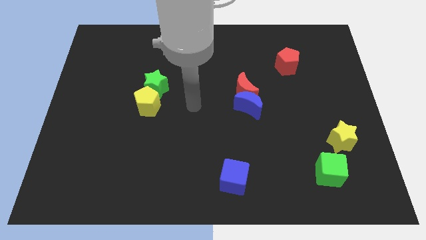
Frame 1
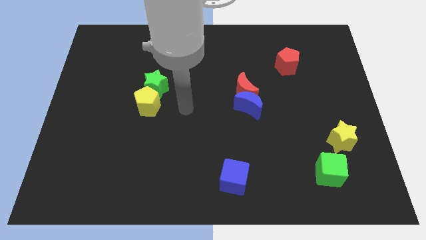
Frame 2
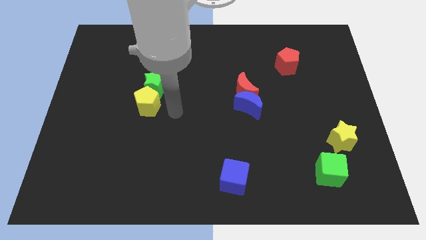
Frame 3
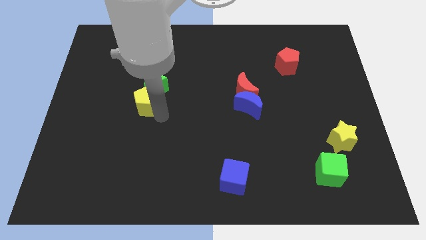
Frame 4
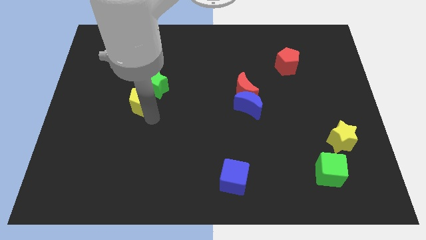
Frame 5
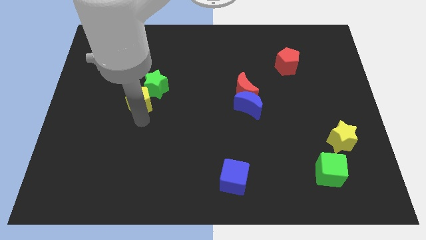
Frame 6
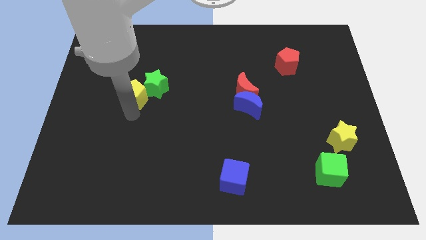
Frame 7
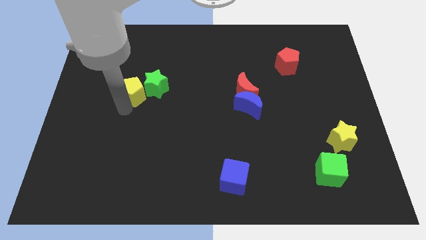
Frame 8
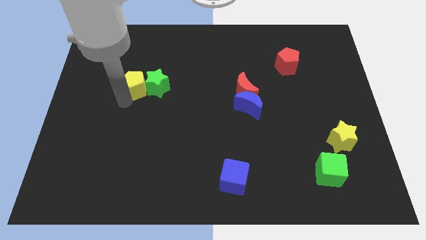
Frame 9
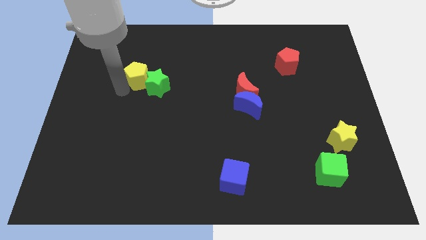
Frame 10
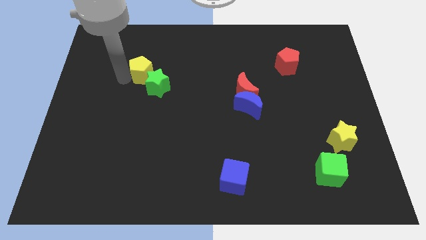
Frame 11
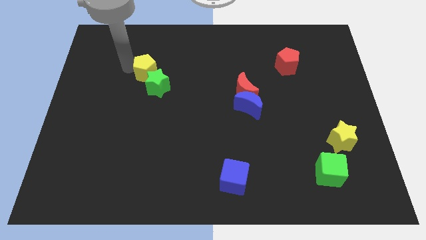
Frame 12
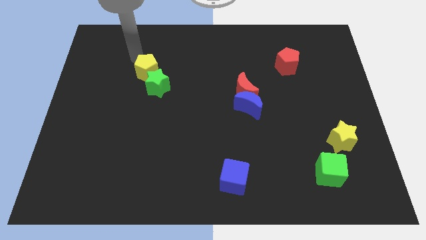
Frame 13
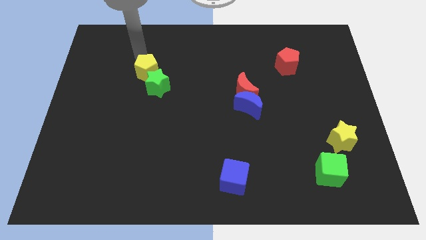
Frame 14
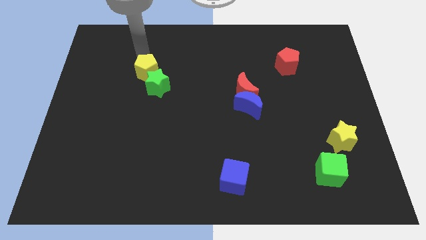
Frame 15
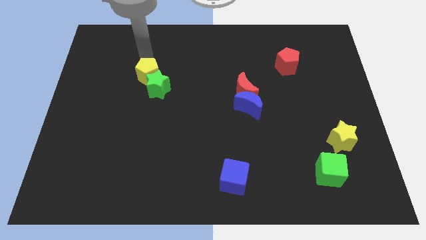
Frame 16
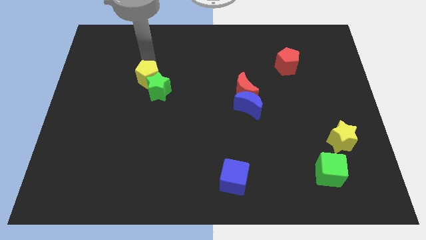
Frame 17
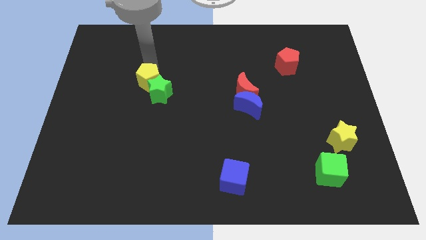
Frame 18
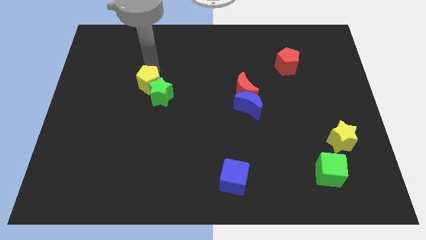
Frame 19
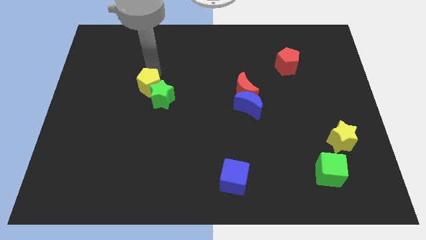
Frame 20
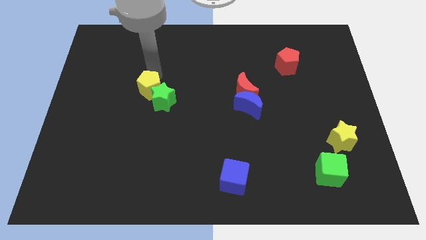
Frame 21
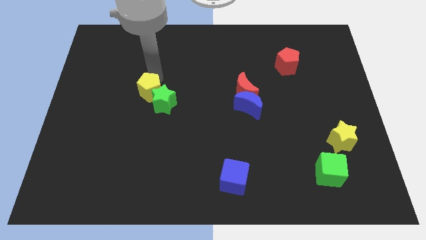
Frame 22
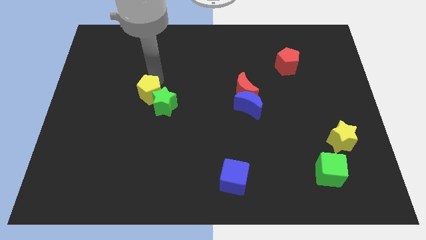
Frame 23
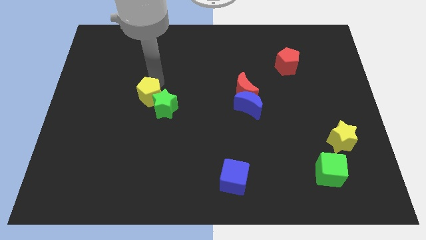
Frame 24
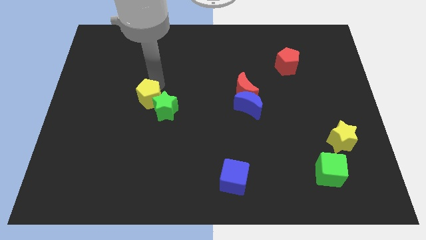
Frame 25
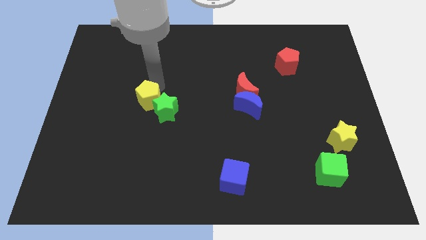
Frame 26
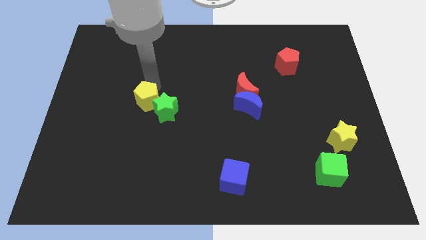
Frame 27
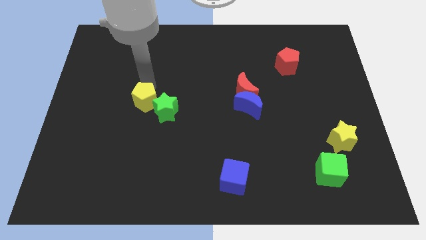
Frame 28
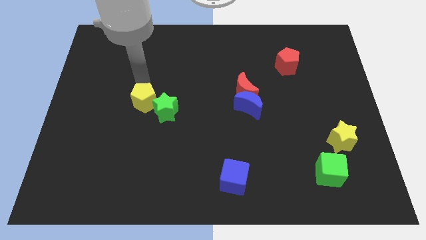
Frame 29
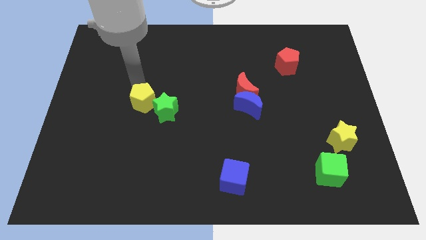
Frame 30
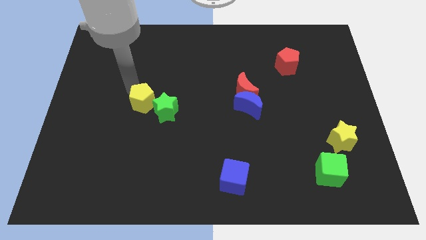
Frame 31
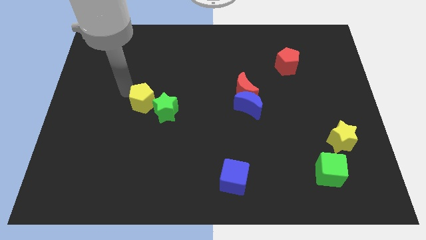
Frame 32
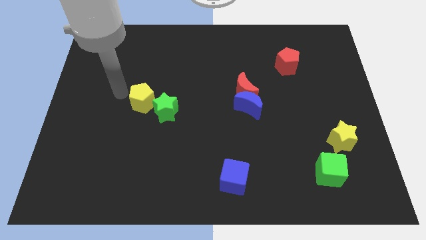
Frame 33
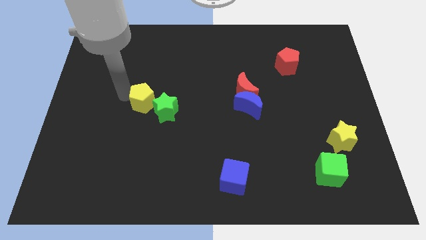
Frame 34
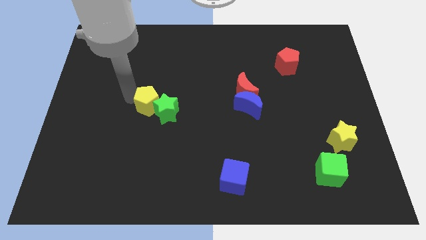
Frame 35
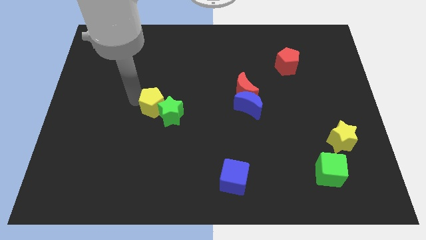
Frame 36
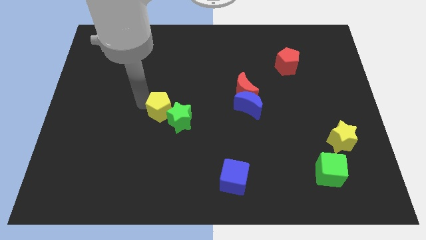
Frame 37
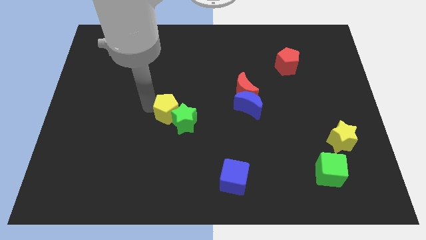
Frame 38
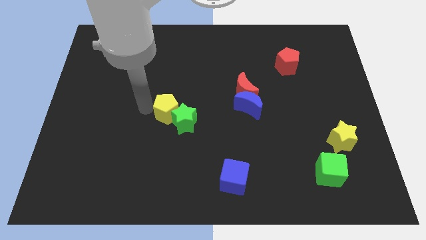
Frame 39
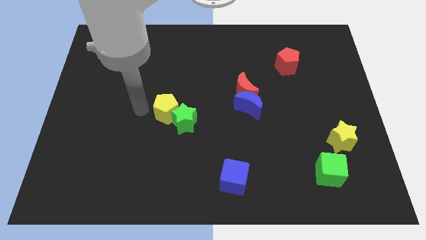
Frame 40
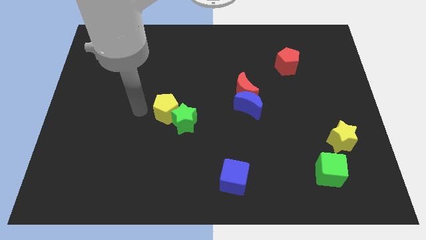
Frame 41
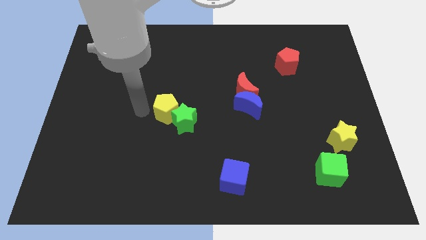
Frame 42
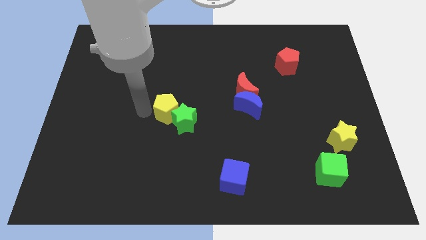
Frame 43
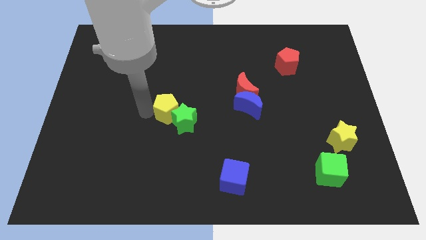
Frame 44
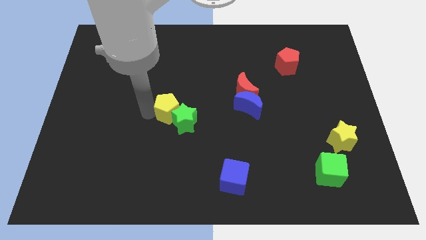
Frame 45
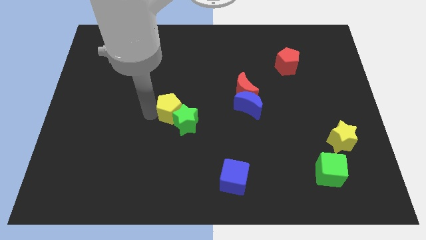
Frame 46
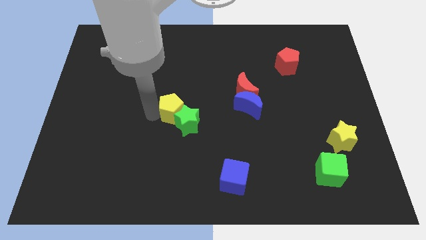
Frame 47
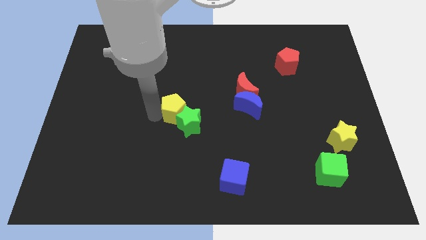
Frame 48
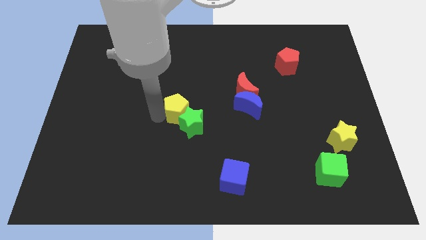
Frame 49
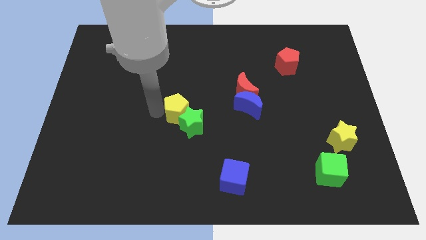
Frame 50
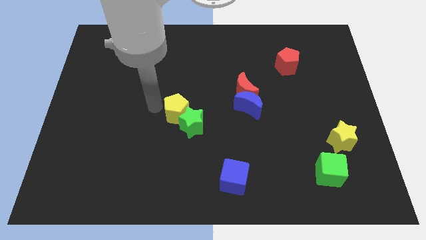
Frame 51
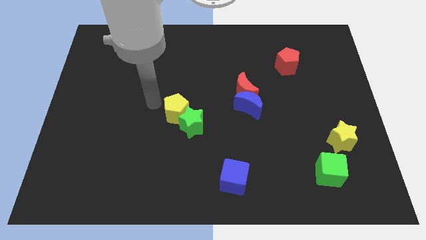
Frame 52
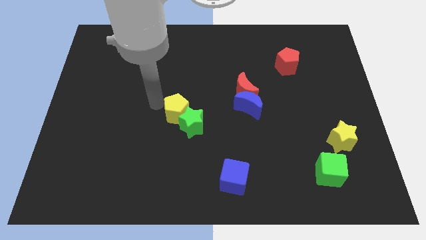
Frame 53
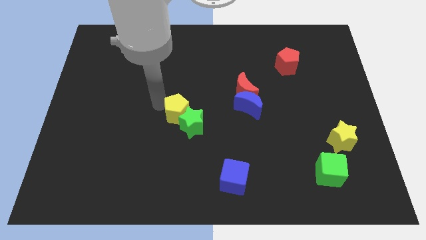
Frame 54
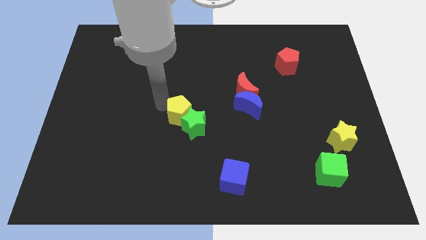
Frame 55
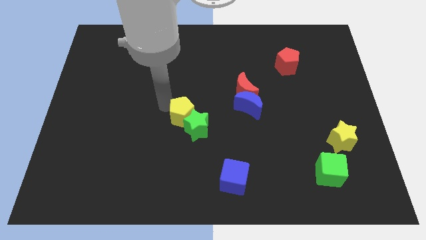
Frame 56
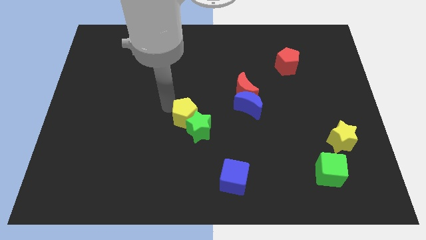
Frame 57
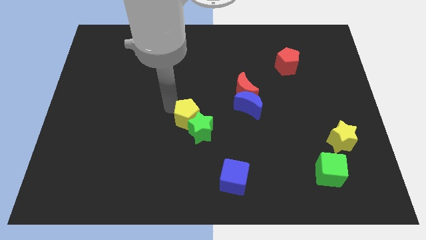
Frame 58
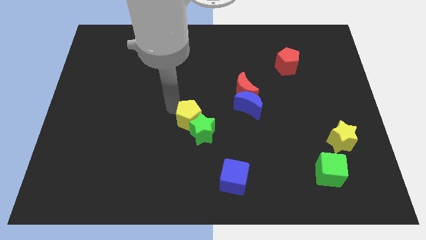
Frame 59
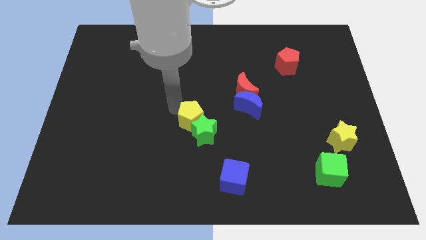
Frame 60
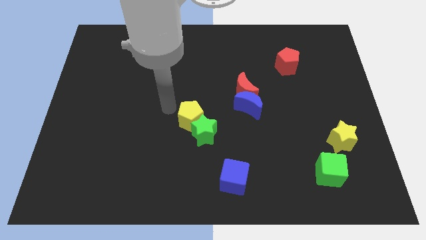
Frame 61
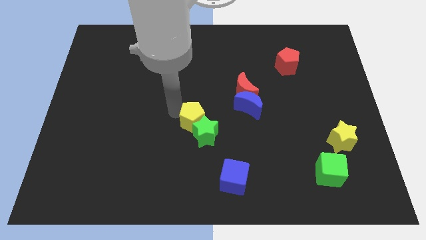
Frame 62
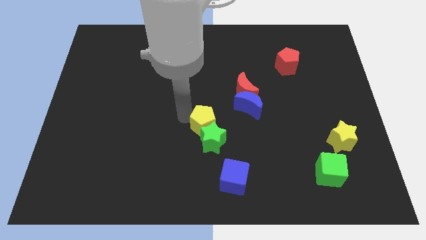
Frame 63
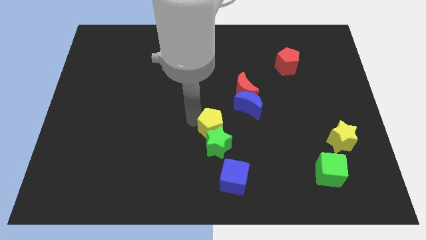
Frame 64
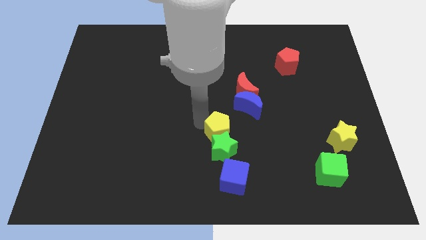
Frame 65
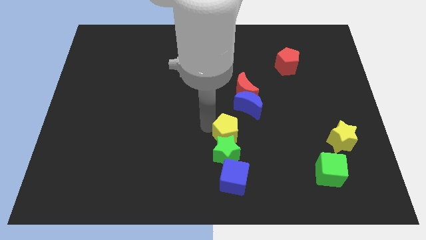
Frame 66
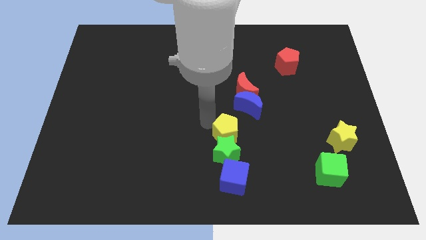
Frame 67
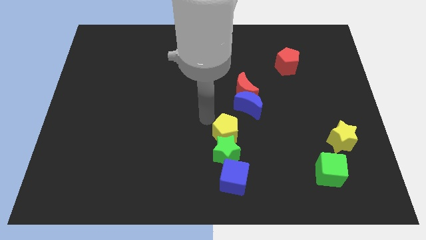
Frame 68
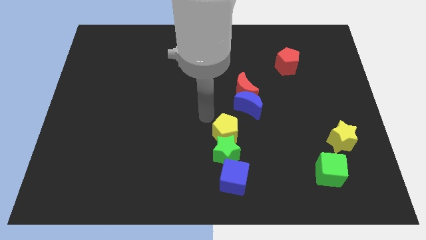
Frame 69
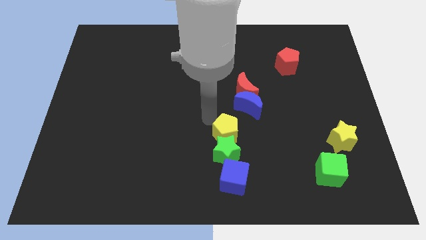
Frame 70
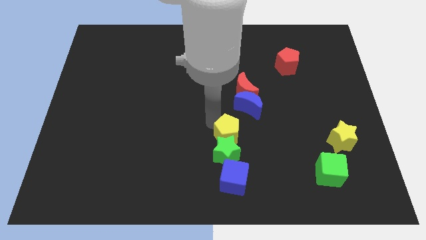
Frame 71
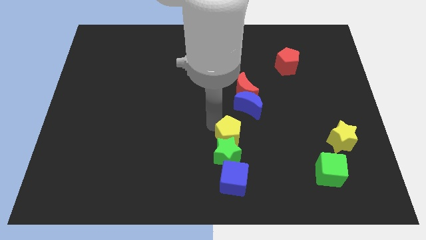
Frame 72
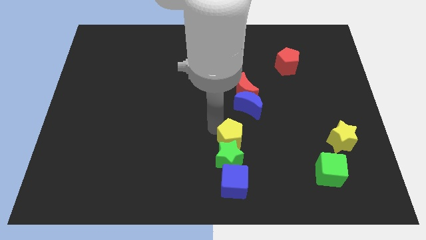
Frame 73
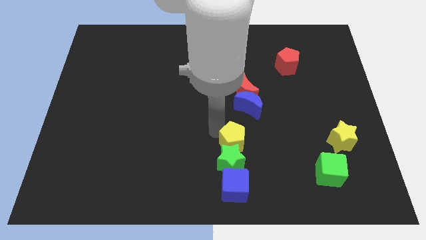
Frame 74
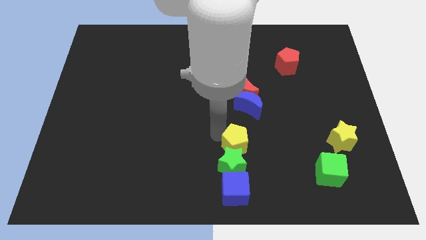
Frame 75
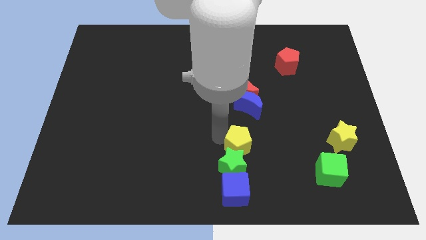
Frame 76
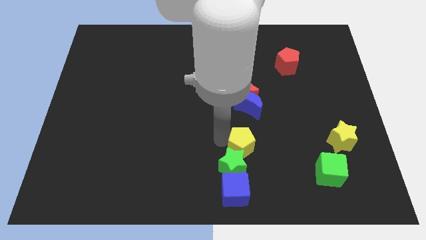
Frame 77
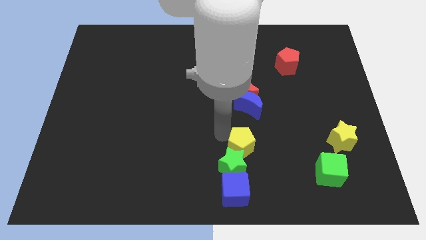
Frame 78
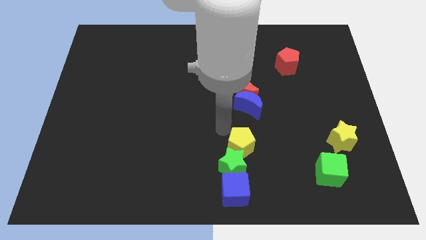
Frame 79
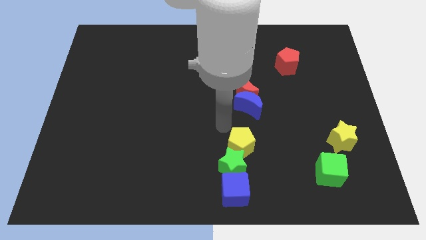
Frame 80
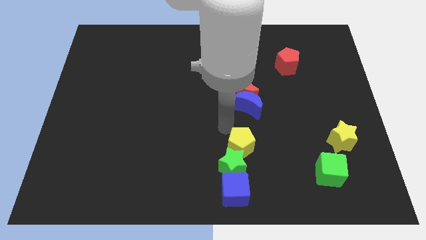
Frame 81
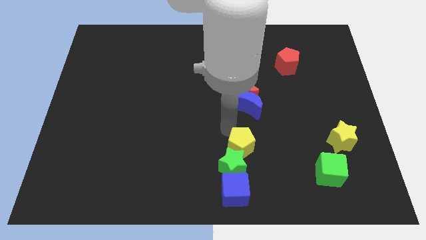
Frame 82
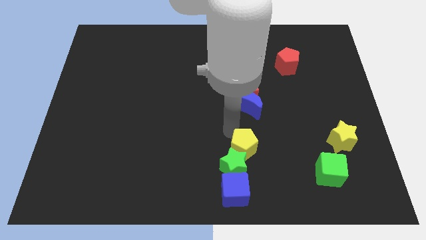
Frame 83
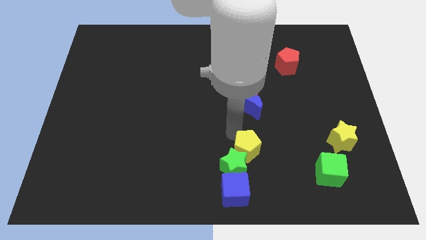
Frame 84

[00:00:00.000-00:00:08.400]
move the yellow pentagon diagonally up and to the right of the blue cube
